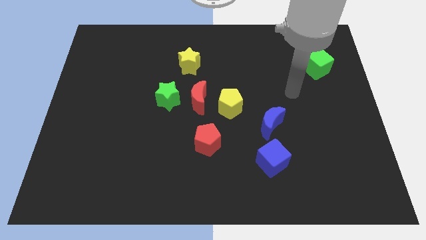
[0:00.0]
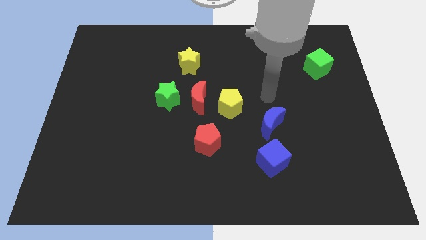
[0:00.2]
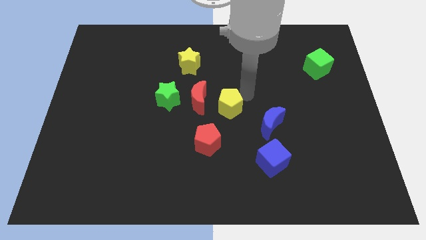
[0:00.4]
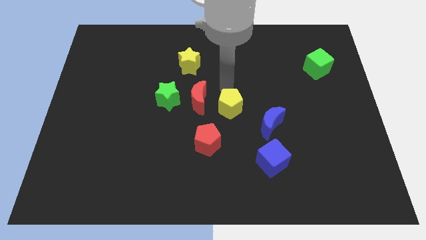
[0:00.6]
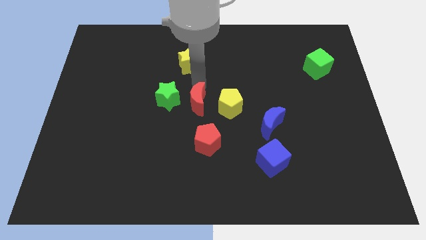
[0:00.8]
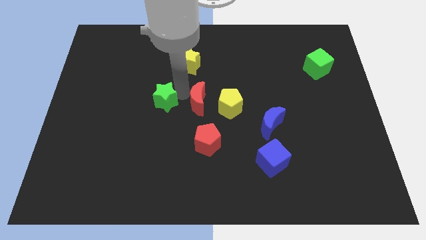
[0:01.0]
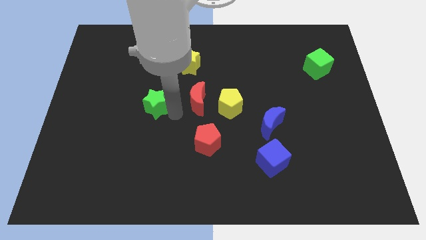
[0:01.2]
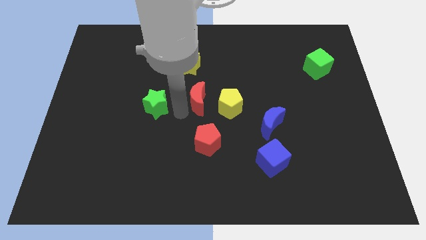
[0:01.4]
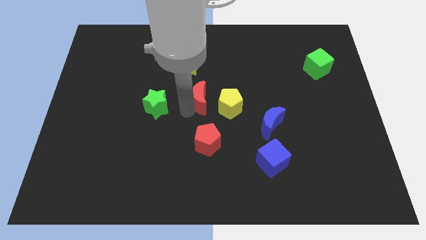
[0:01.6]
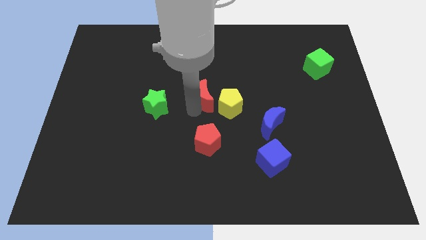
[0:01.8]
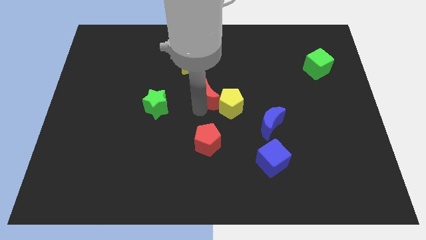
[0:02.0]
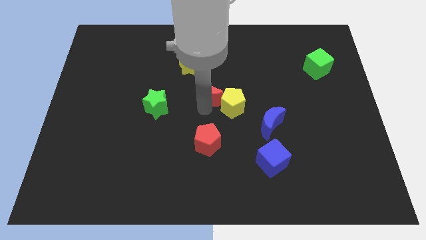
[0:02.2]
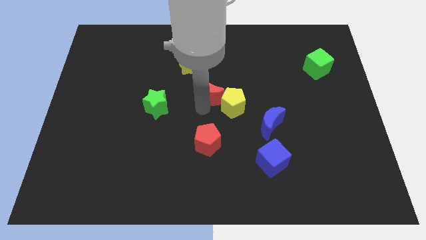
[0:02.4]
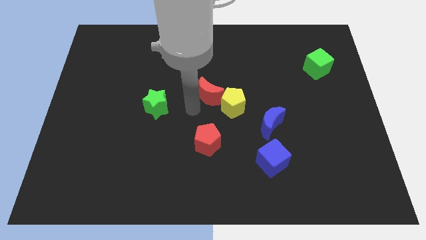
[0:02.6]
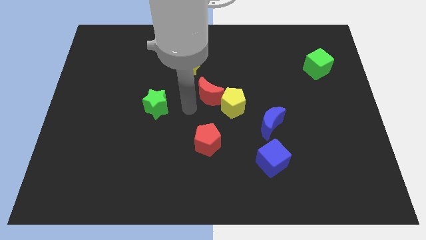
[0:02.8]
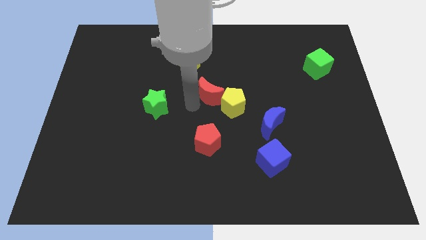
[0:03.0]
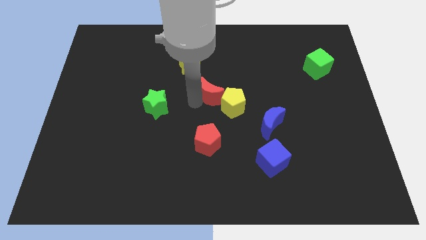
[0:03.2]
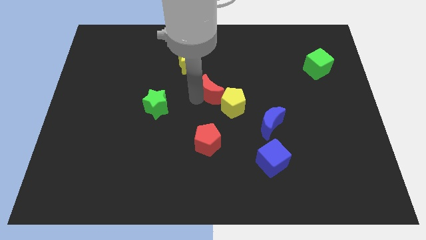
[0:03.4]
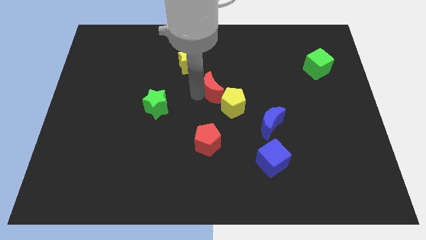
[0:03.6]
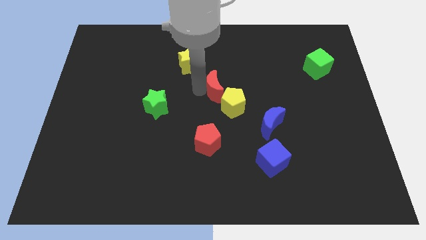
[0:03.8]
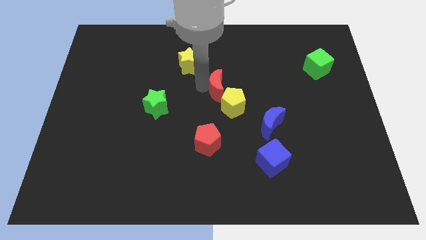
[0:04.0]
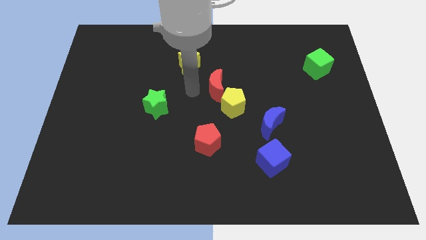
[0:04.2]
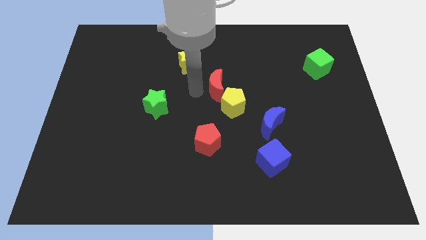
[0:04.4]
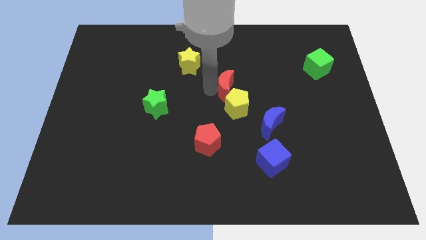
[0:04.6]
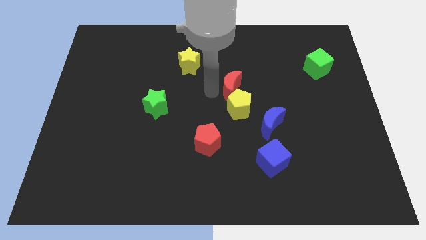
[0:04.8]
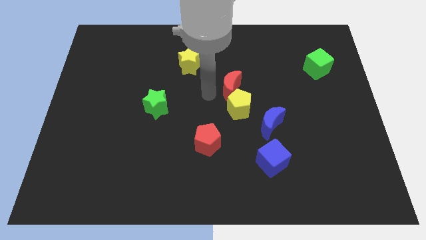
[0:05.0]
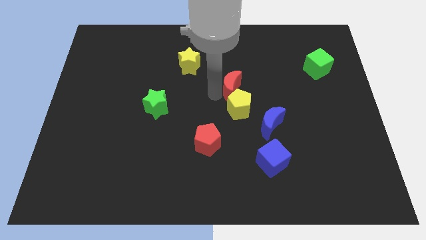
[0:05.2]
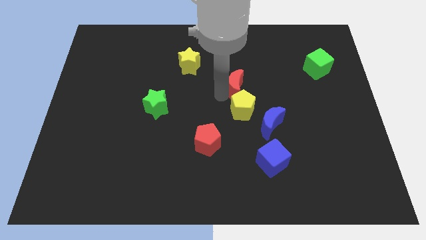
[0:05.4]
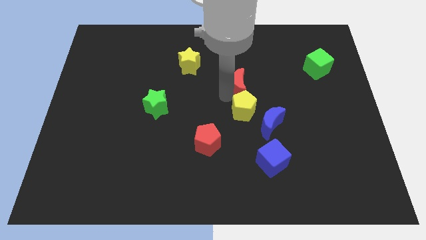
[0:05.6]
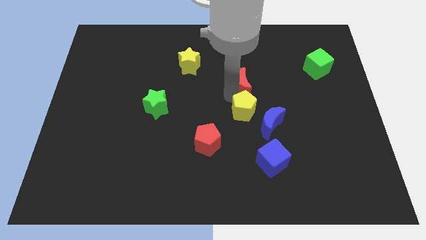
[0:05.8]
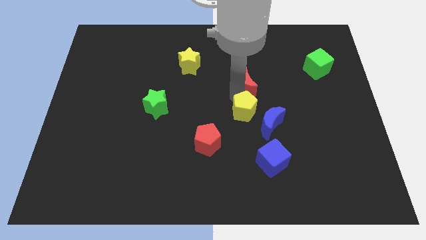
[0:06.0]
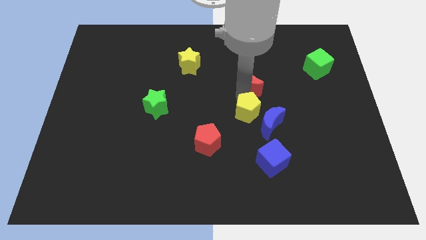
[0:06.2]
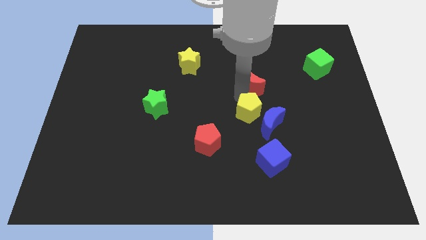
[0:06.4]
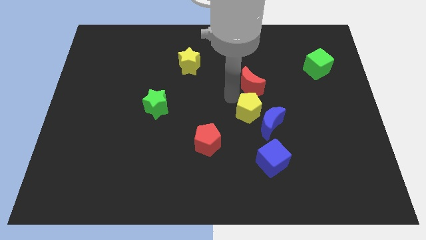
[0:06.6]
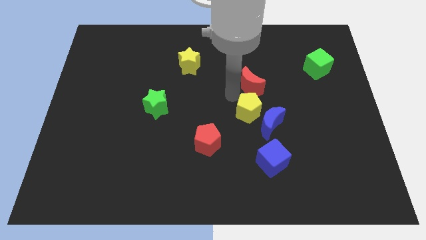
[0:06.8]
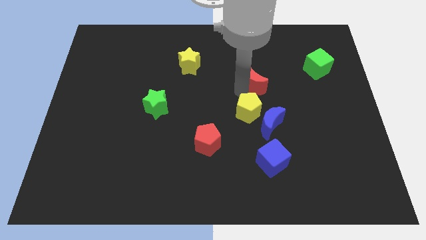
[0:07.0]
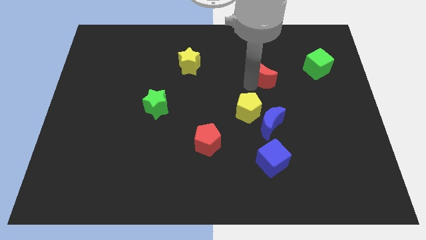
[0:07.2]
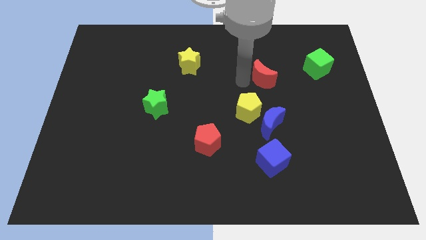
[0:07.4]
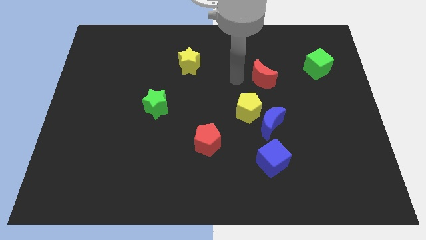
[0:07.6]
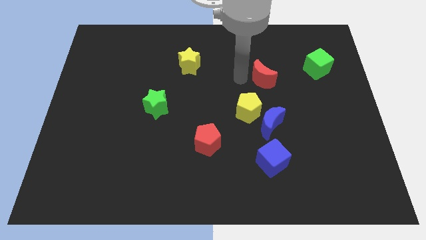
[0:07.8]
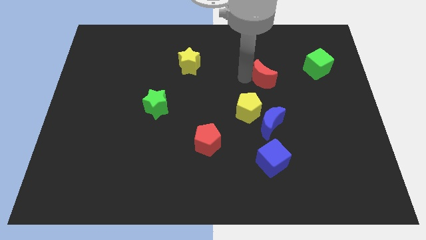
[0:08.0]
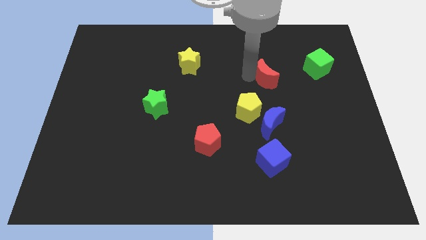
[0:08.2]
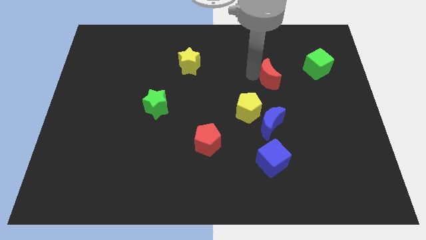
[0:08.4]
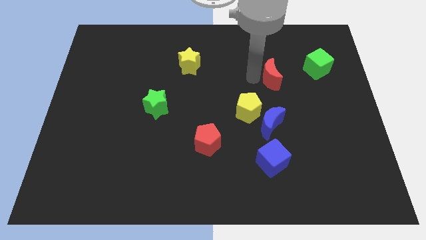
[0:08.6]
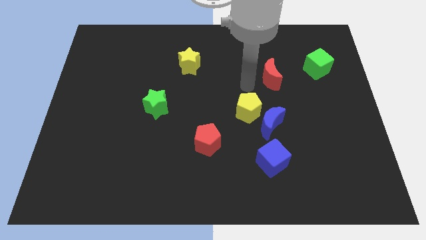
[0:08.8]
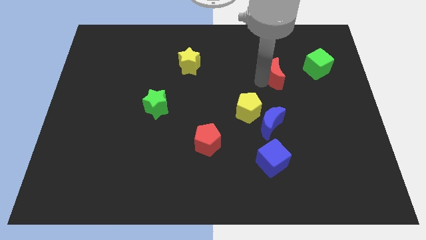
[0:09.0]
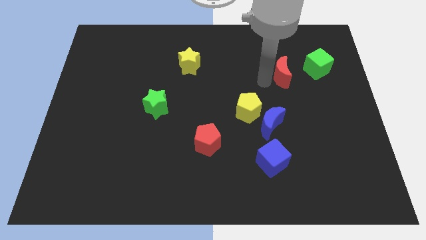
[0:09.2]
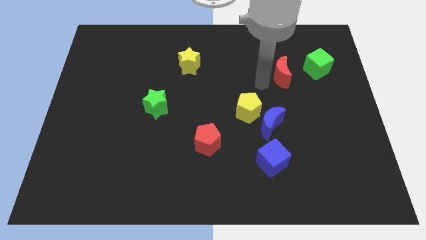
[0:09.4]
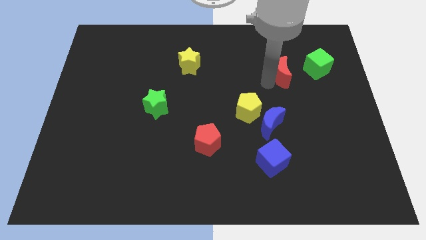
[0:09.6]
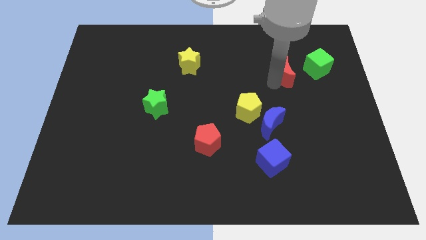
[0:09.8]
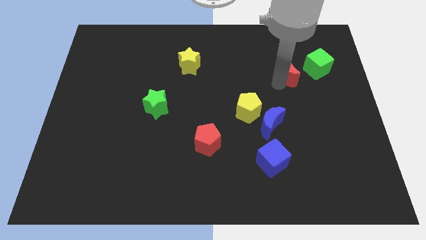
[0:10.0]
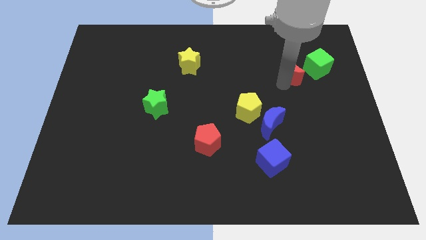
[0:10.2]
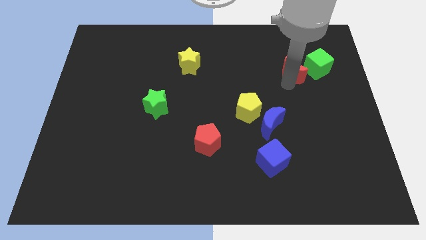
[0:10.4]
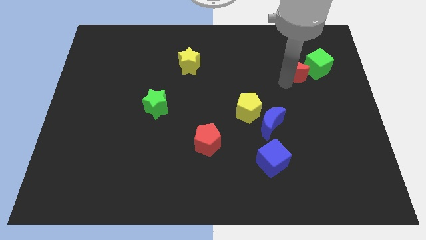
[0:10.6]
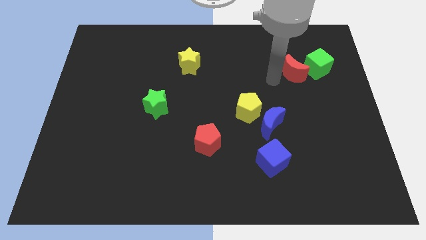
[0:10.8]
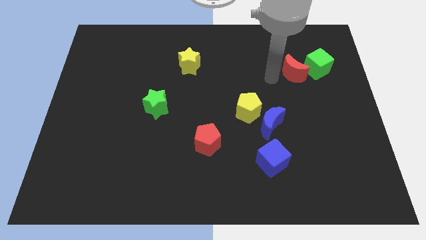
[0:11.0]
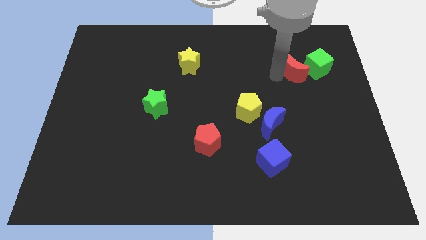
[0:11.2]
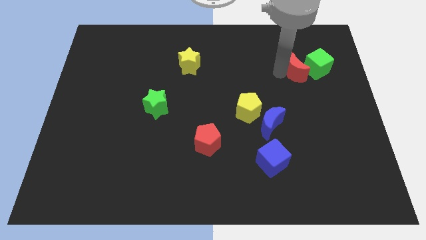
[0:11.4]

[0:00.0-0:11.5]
slide the red moon to the green cube

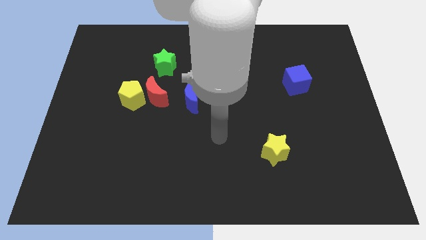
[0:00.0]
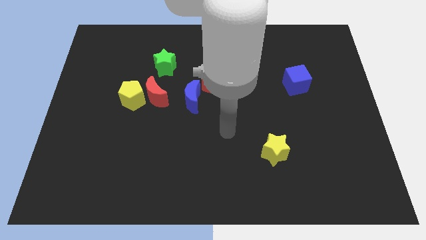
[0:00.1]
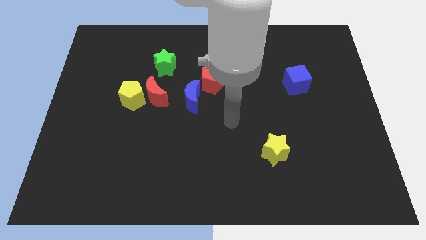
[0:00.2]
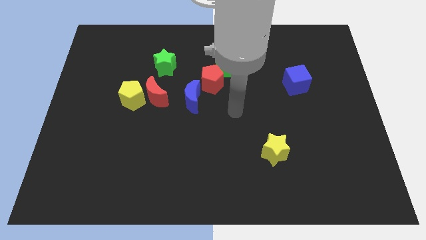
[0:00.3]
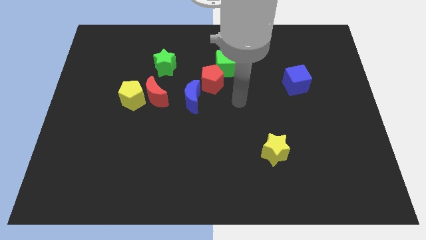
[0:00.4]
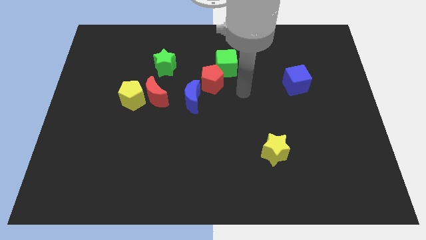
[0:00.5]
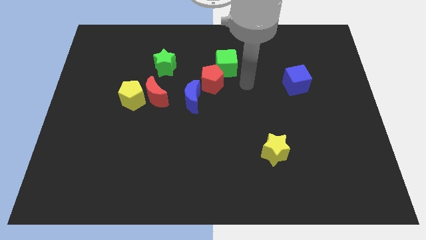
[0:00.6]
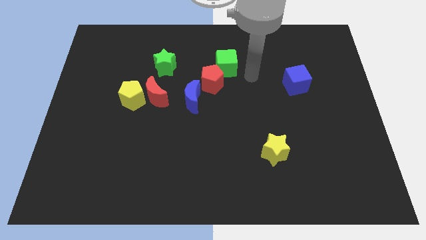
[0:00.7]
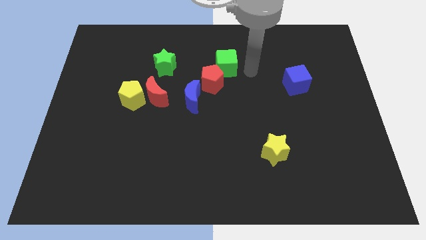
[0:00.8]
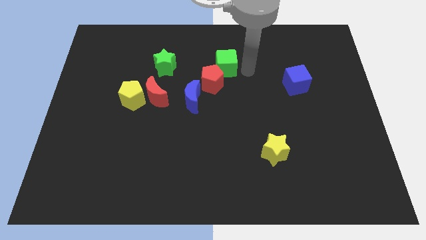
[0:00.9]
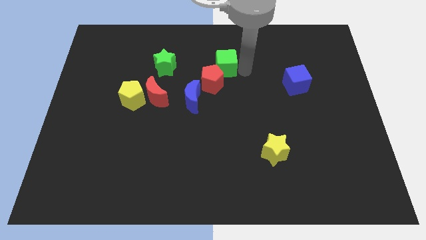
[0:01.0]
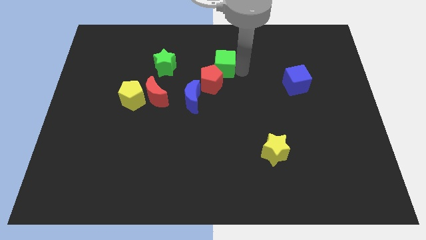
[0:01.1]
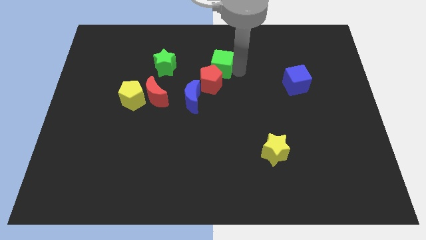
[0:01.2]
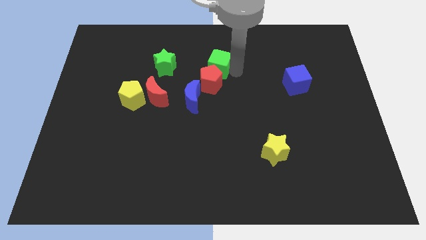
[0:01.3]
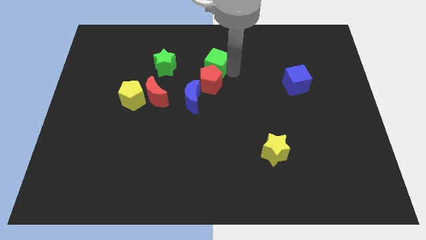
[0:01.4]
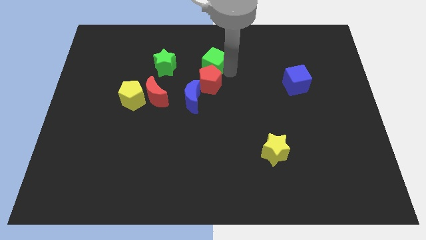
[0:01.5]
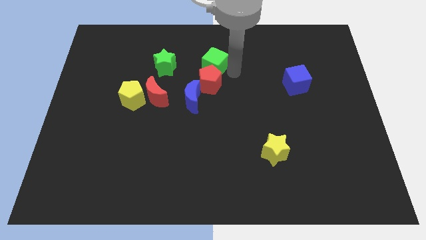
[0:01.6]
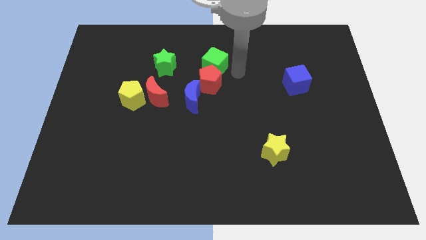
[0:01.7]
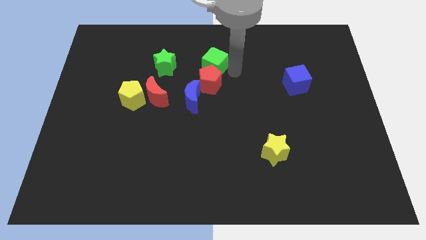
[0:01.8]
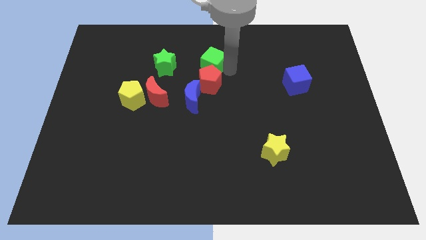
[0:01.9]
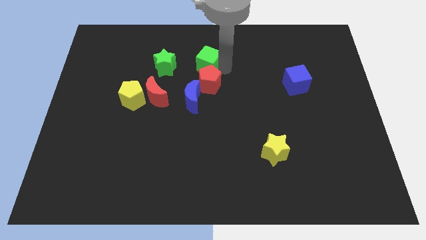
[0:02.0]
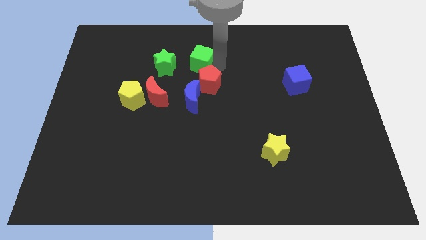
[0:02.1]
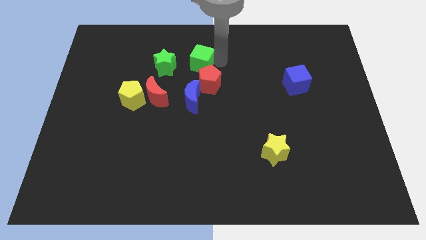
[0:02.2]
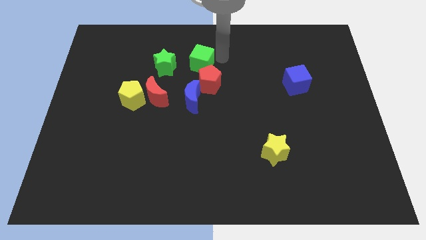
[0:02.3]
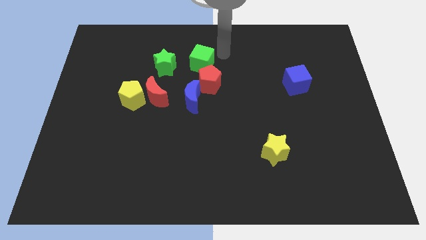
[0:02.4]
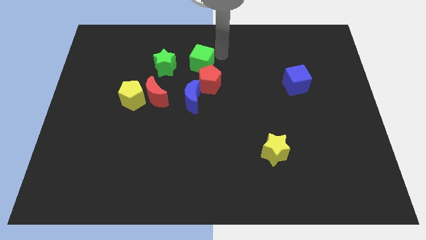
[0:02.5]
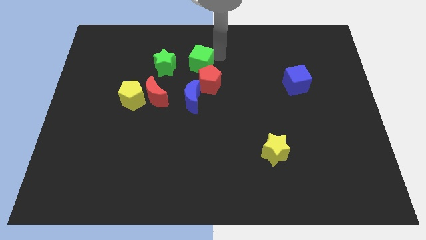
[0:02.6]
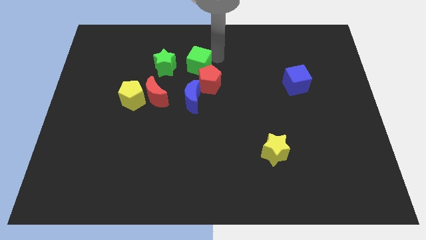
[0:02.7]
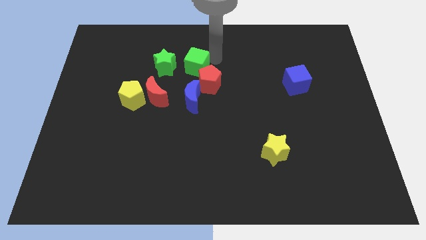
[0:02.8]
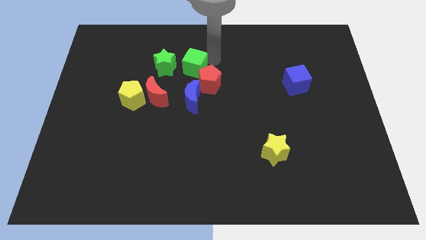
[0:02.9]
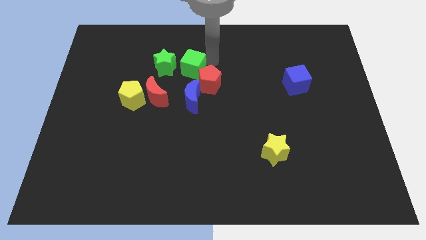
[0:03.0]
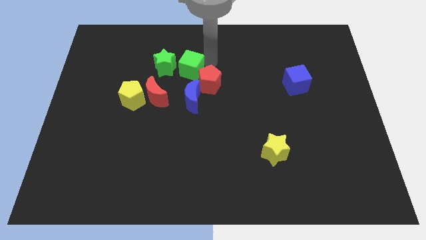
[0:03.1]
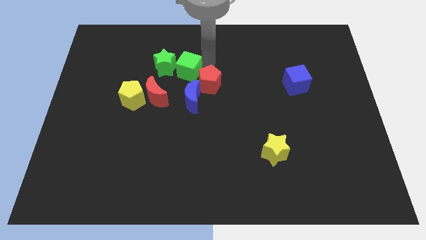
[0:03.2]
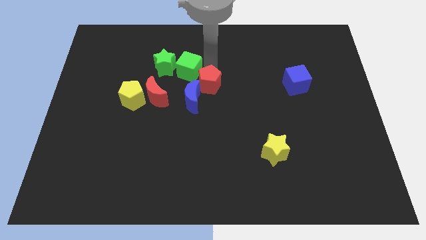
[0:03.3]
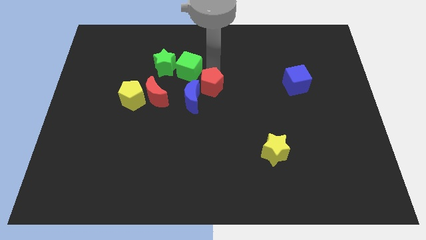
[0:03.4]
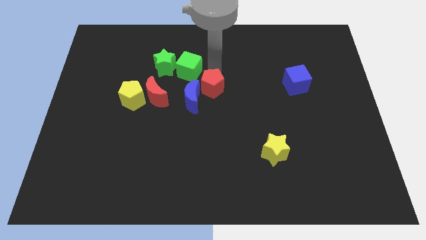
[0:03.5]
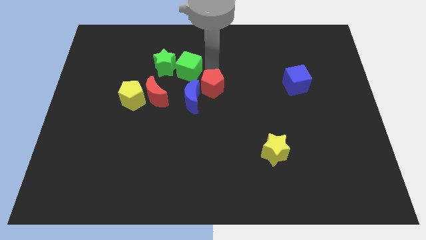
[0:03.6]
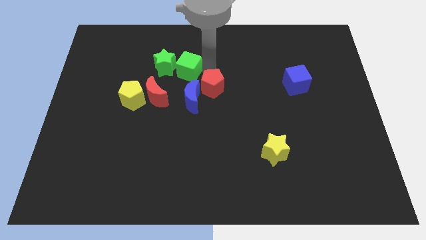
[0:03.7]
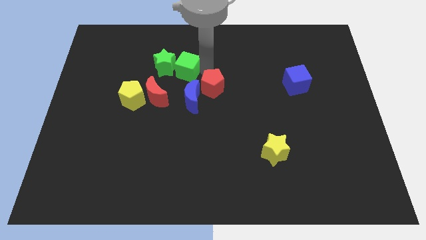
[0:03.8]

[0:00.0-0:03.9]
move the green cube next to the green star
